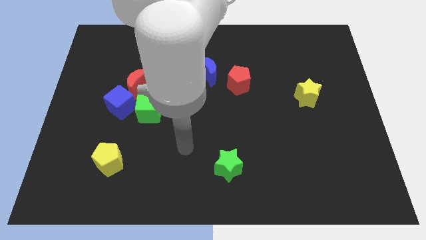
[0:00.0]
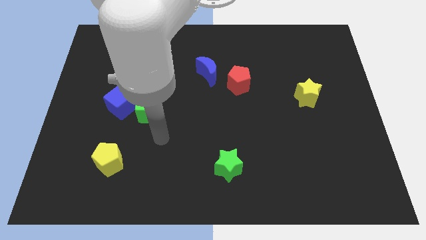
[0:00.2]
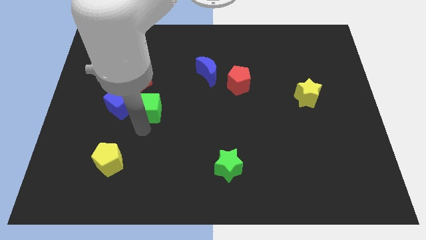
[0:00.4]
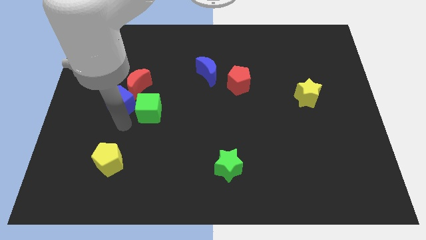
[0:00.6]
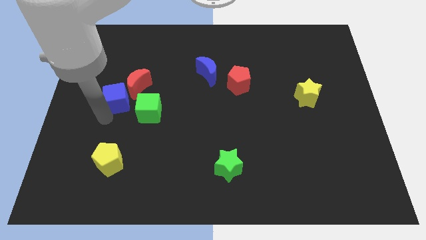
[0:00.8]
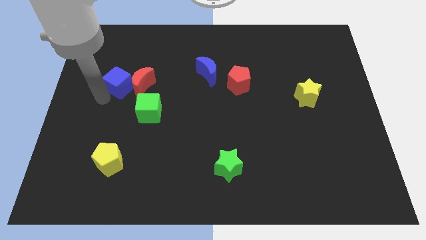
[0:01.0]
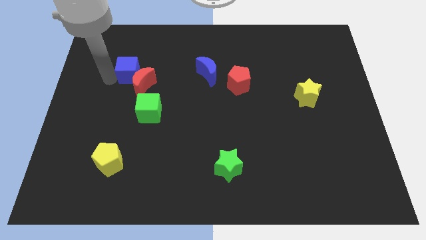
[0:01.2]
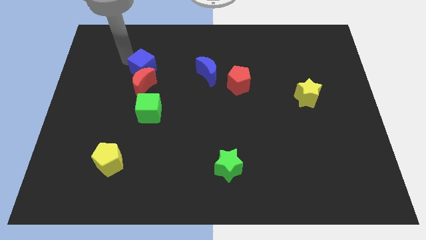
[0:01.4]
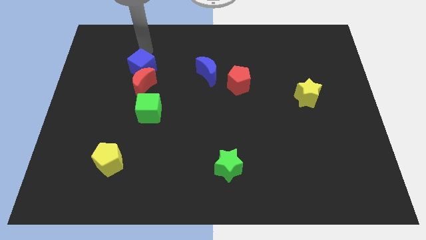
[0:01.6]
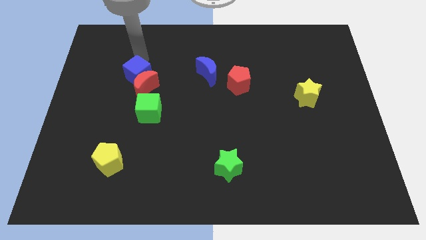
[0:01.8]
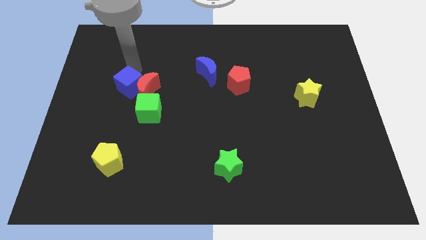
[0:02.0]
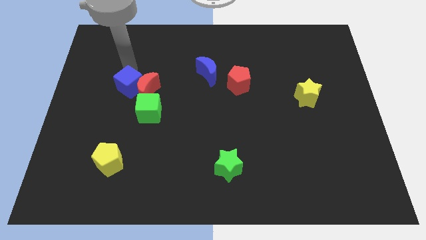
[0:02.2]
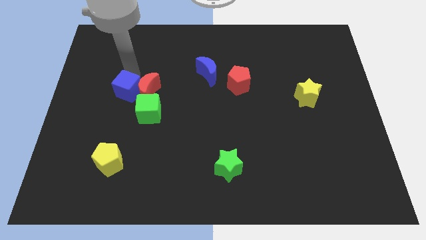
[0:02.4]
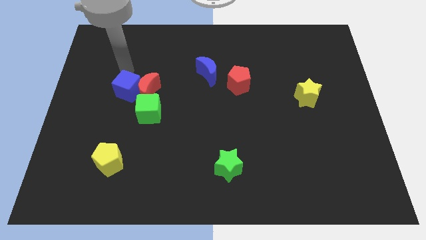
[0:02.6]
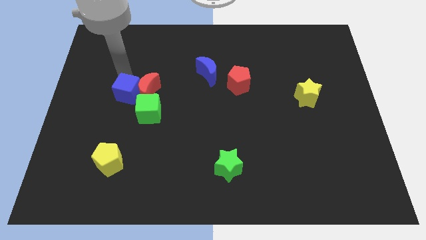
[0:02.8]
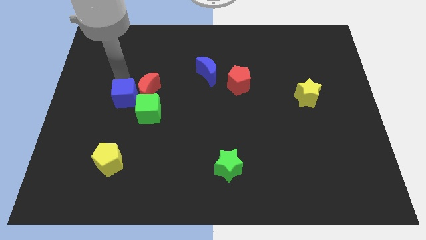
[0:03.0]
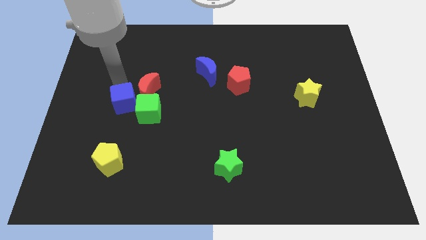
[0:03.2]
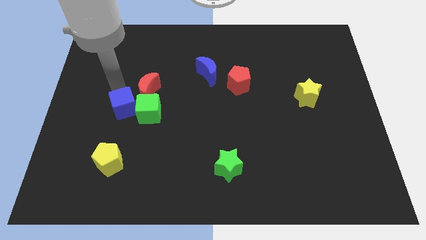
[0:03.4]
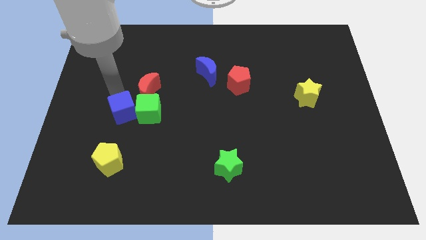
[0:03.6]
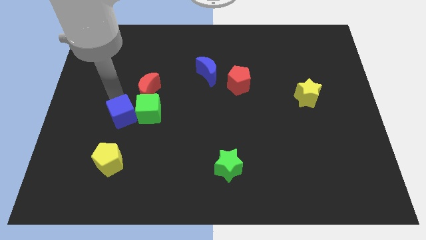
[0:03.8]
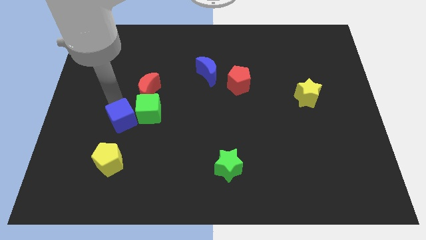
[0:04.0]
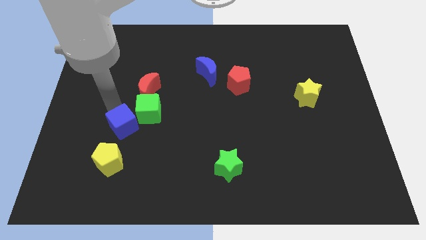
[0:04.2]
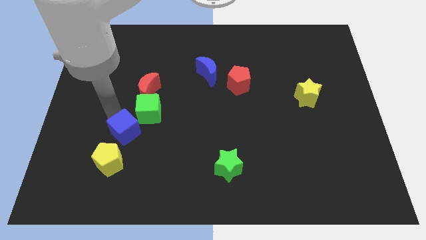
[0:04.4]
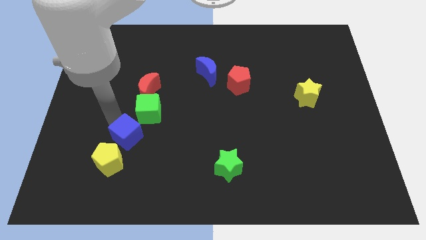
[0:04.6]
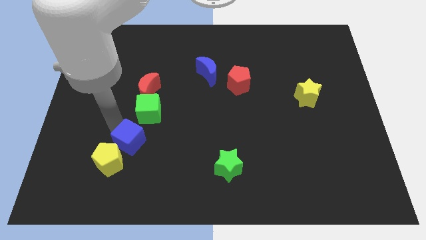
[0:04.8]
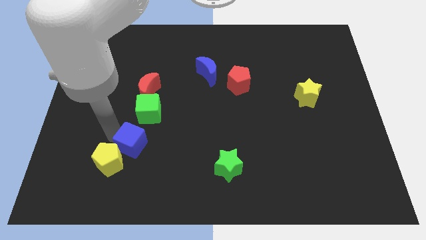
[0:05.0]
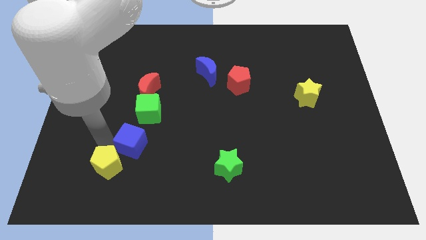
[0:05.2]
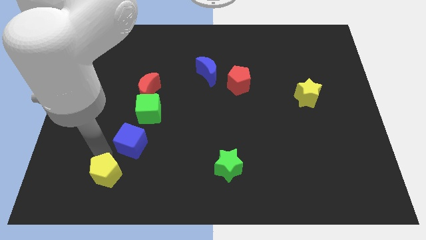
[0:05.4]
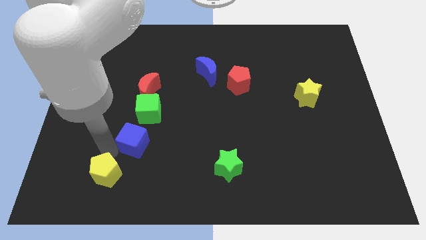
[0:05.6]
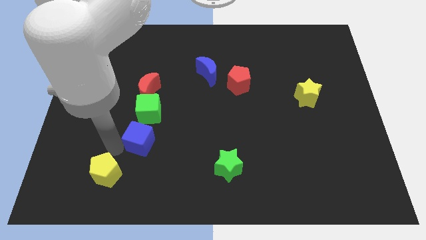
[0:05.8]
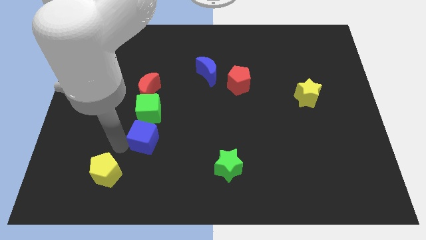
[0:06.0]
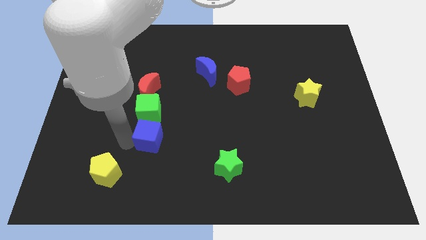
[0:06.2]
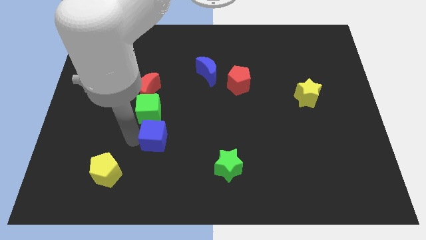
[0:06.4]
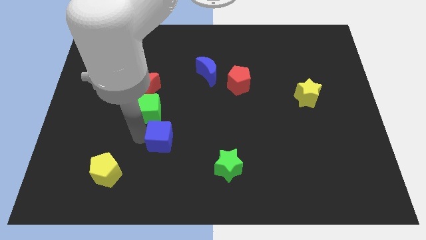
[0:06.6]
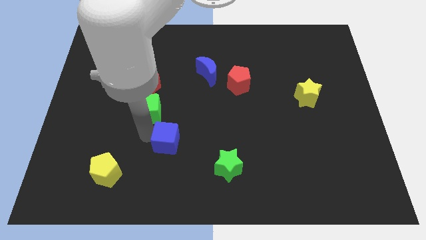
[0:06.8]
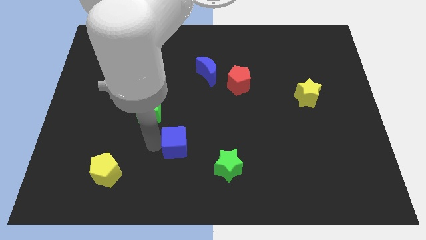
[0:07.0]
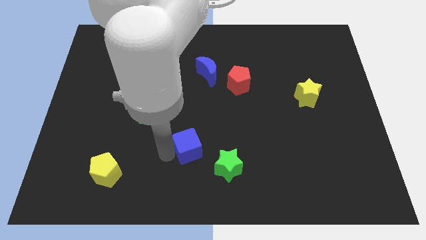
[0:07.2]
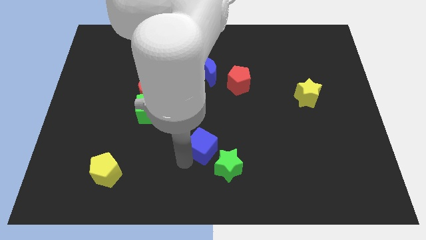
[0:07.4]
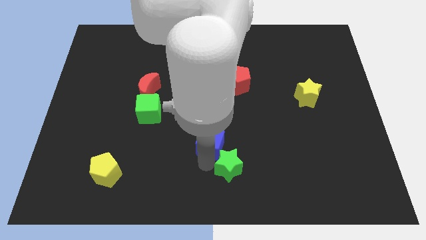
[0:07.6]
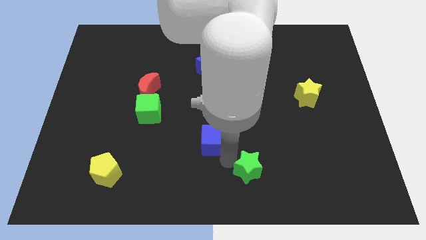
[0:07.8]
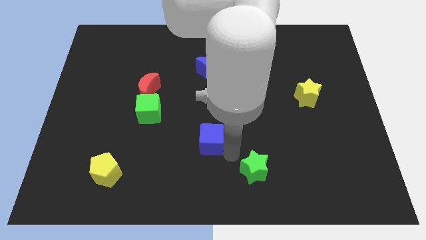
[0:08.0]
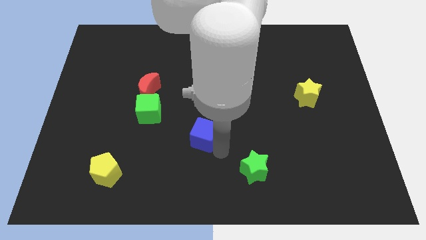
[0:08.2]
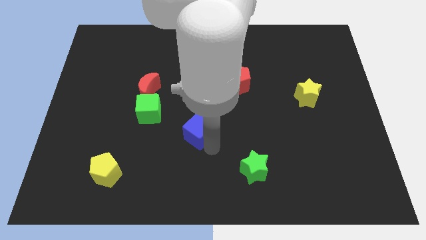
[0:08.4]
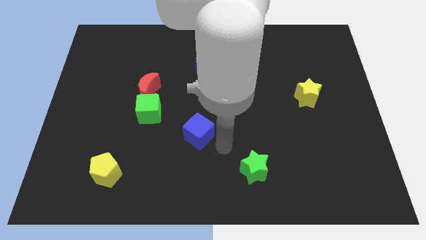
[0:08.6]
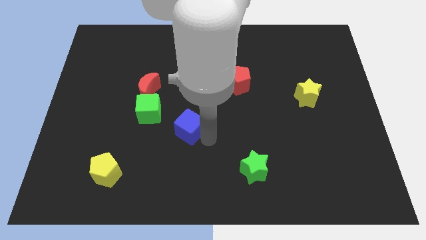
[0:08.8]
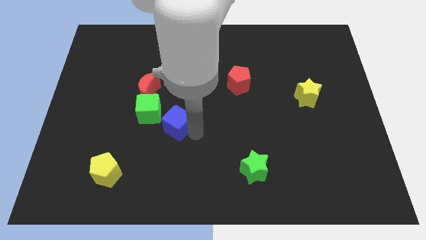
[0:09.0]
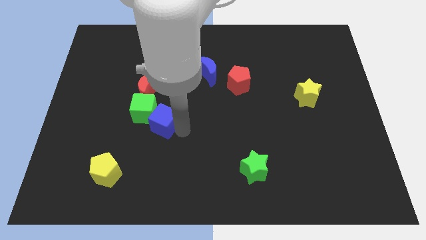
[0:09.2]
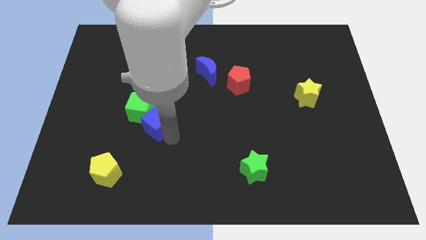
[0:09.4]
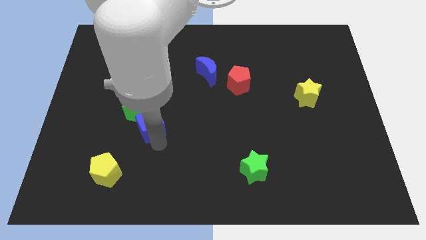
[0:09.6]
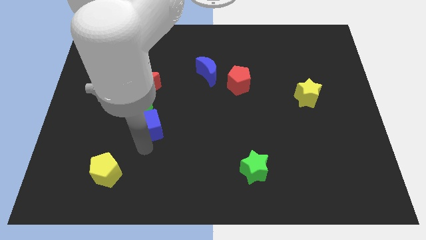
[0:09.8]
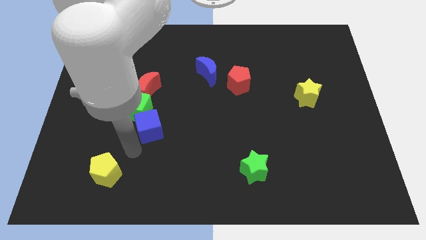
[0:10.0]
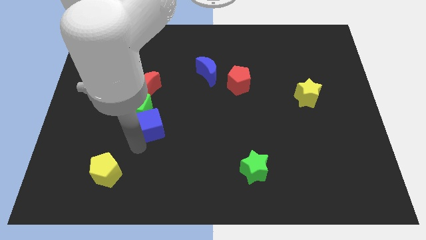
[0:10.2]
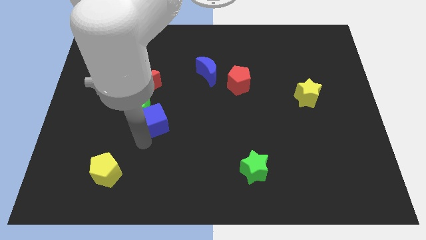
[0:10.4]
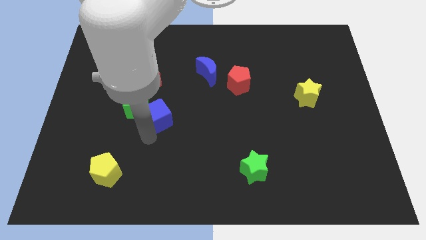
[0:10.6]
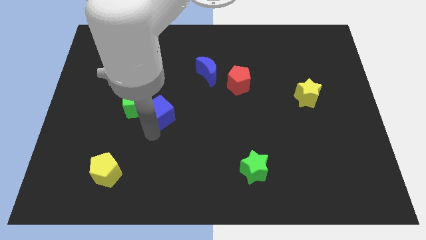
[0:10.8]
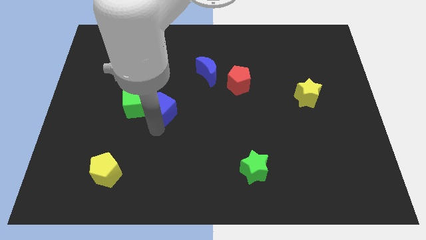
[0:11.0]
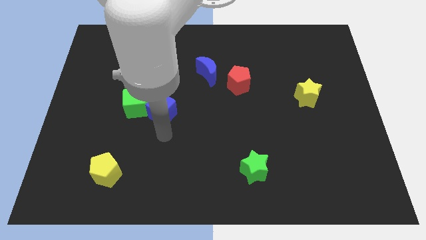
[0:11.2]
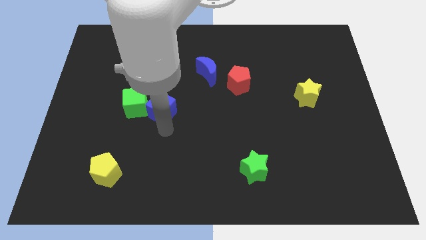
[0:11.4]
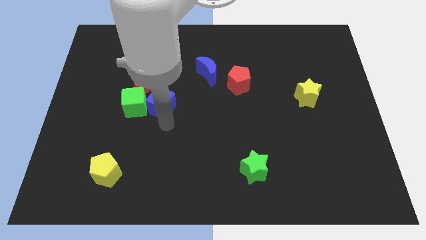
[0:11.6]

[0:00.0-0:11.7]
push the blue cube diagonally up and to the right of the green cube

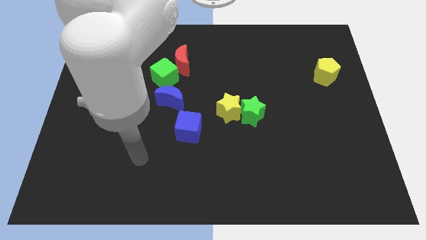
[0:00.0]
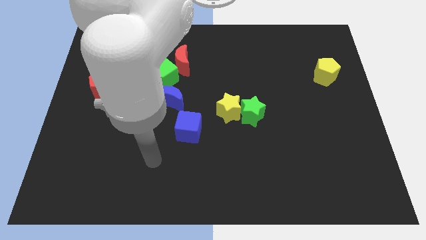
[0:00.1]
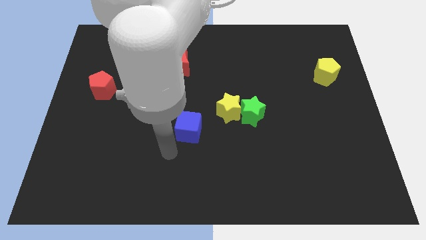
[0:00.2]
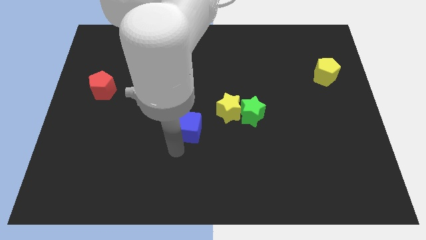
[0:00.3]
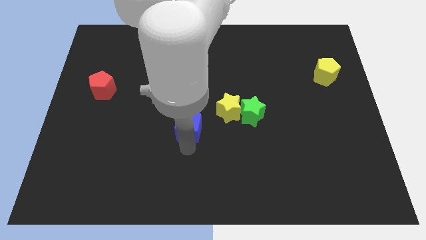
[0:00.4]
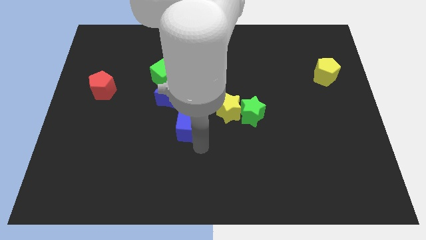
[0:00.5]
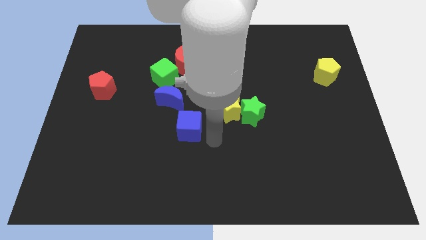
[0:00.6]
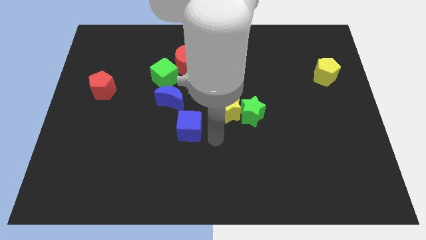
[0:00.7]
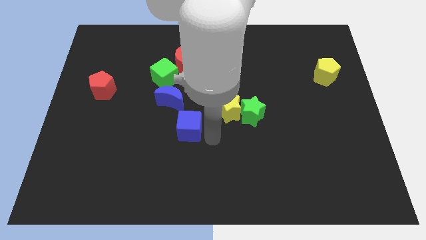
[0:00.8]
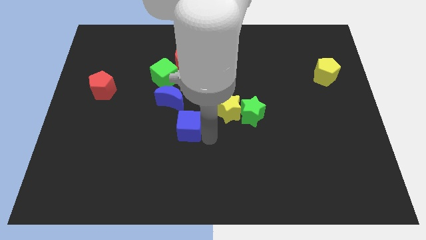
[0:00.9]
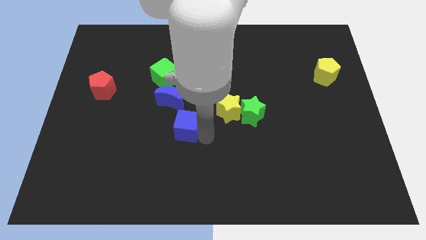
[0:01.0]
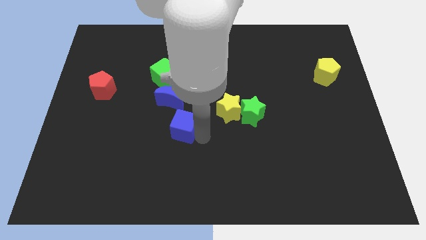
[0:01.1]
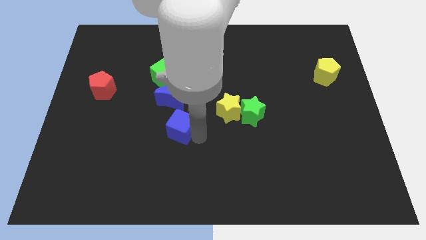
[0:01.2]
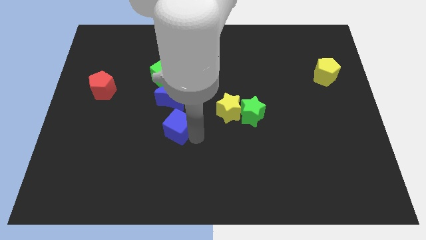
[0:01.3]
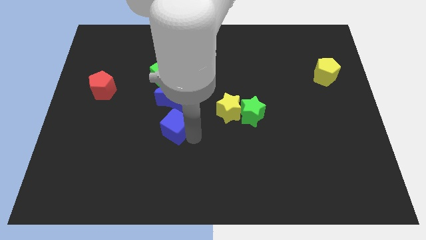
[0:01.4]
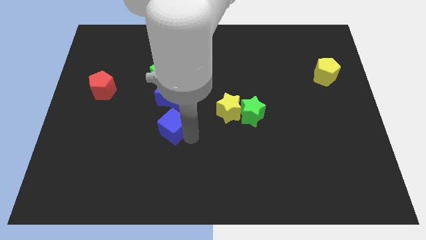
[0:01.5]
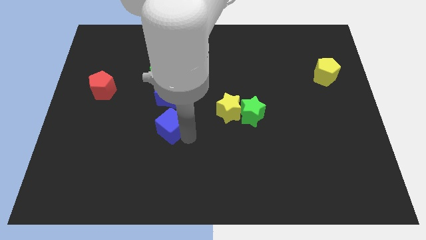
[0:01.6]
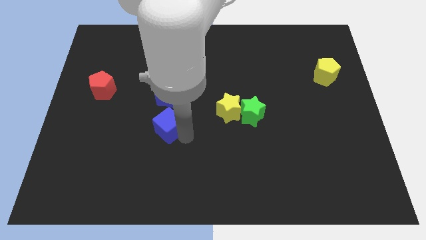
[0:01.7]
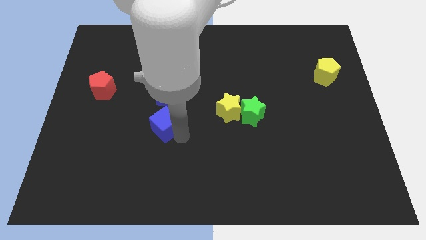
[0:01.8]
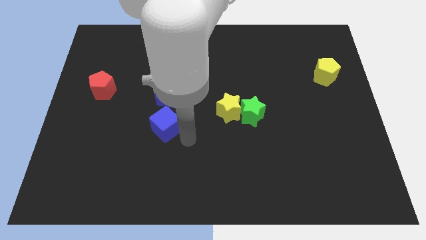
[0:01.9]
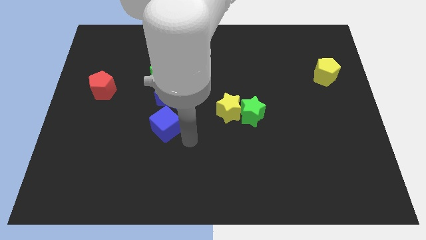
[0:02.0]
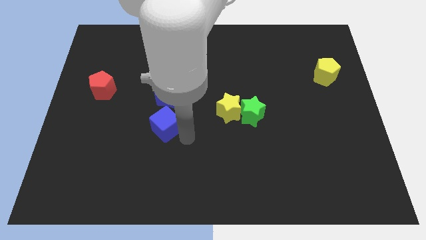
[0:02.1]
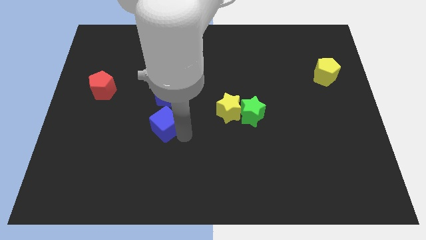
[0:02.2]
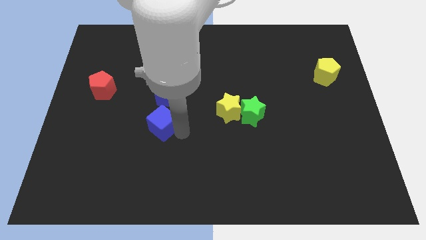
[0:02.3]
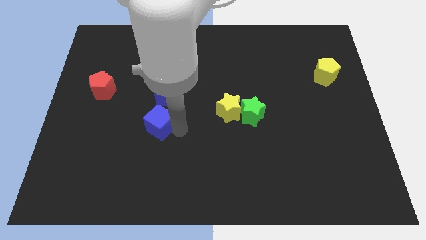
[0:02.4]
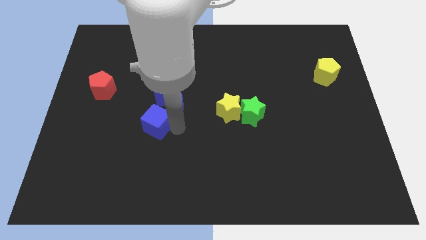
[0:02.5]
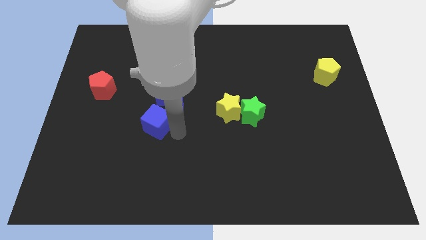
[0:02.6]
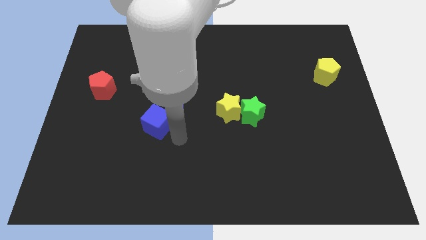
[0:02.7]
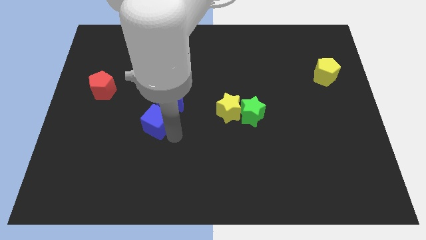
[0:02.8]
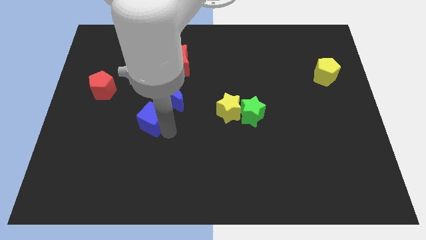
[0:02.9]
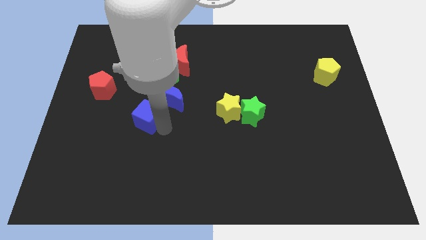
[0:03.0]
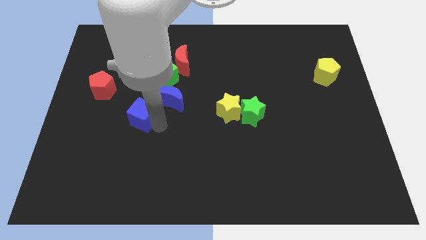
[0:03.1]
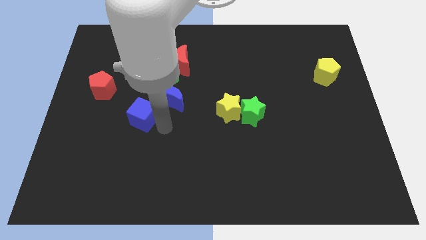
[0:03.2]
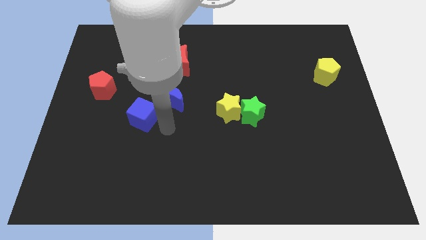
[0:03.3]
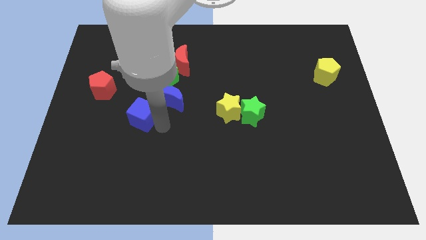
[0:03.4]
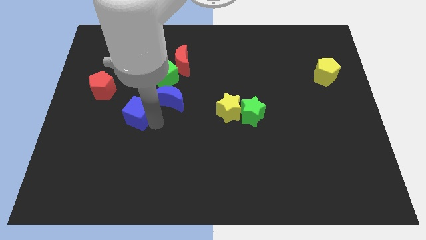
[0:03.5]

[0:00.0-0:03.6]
move the blue cube to the bottom right of the red pentagon
